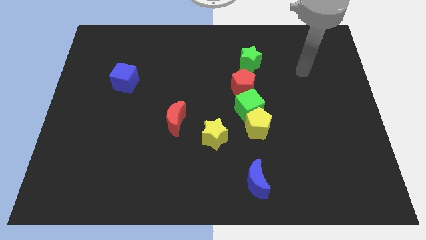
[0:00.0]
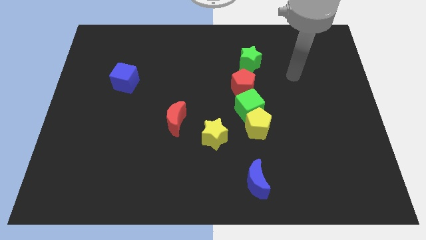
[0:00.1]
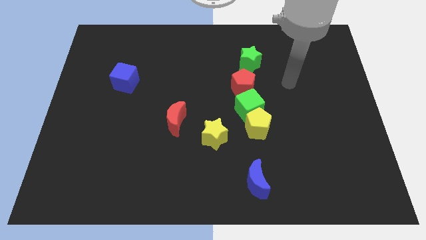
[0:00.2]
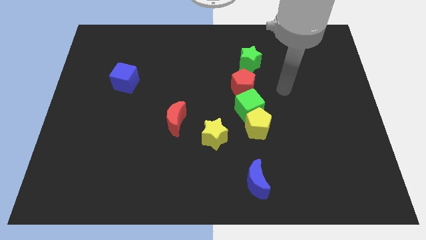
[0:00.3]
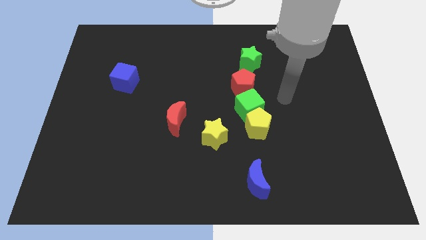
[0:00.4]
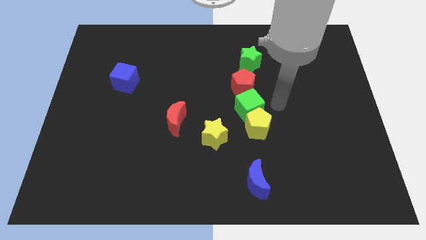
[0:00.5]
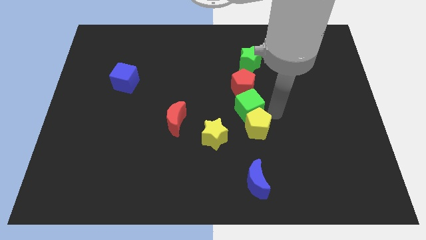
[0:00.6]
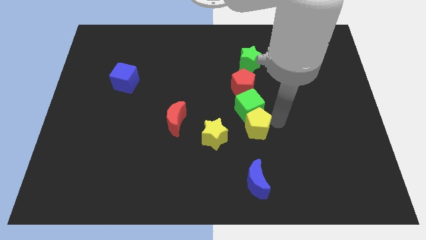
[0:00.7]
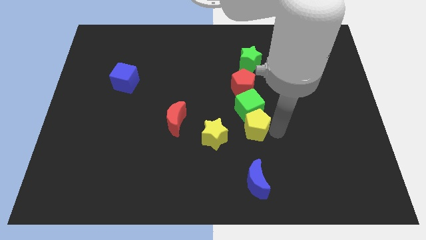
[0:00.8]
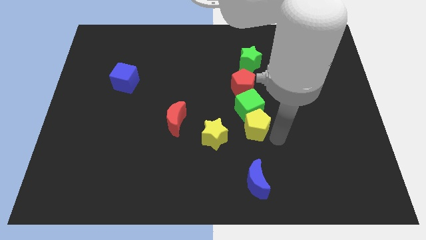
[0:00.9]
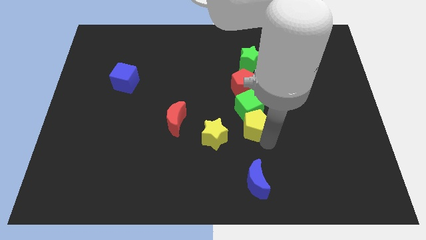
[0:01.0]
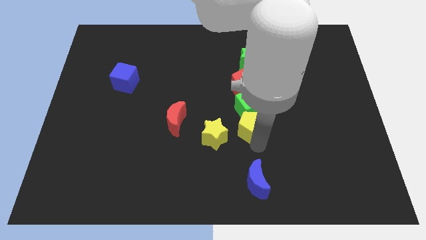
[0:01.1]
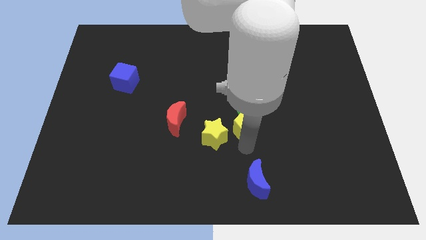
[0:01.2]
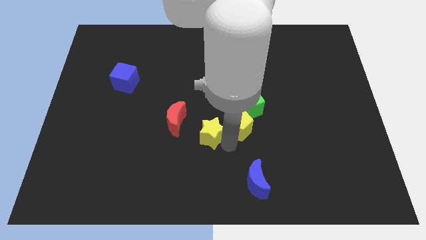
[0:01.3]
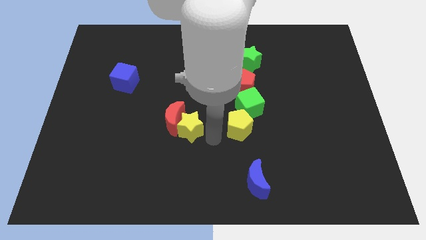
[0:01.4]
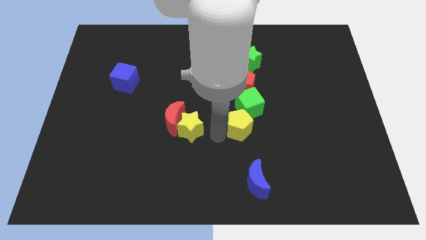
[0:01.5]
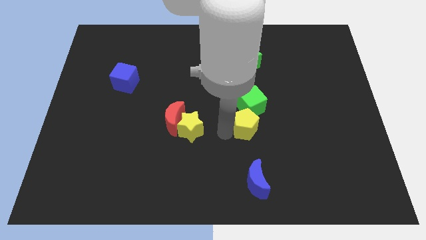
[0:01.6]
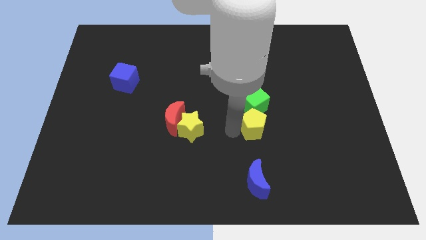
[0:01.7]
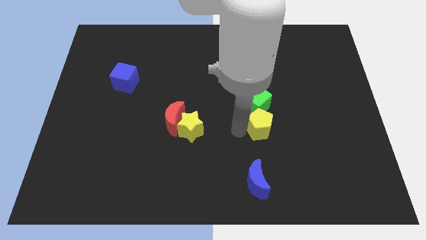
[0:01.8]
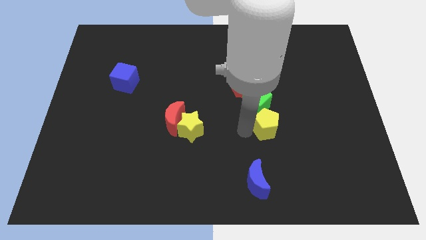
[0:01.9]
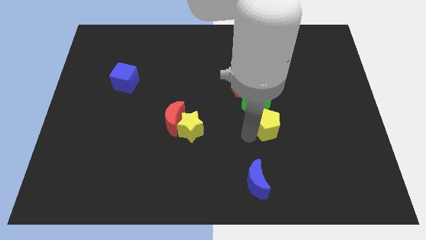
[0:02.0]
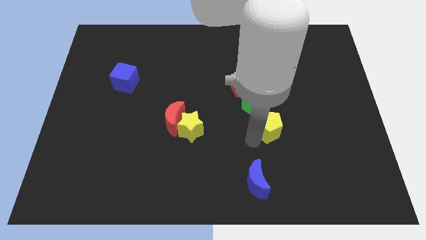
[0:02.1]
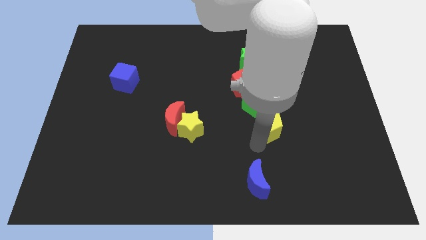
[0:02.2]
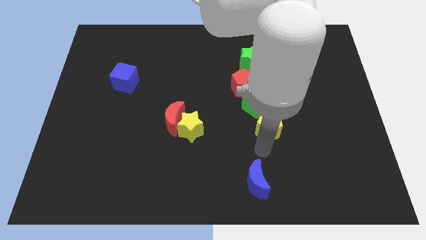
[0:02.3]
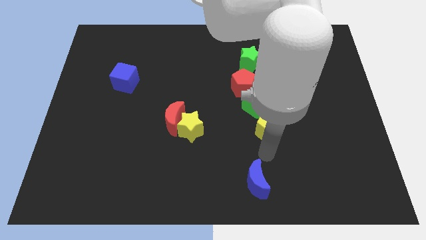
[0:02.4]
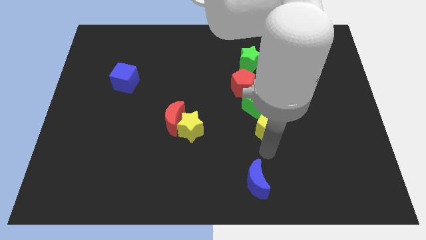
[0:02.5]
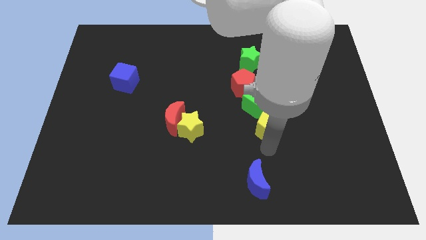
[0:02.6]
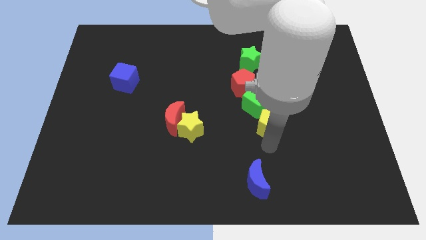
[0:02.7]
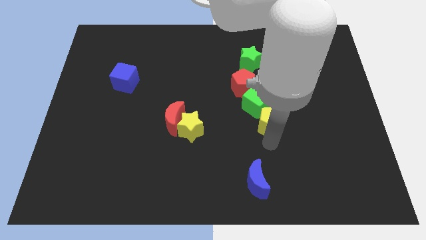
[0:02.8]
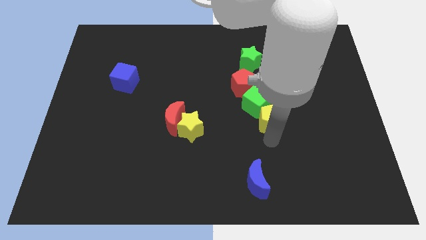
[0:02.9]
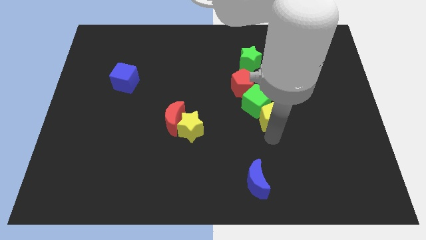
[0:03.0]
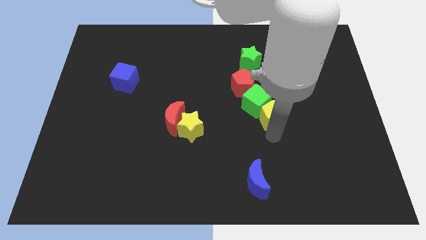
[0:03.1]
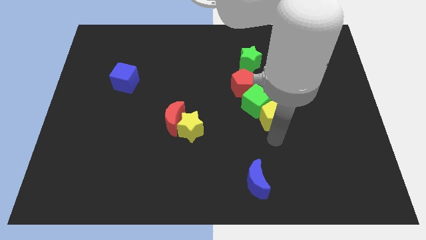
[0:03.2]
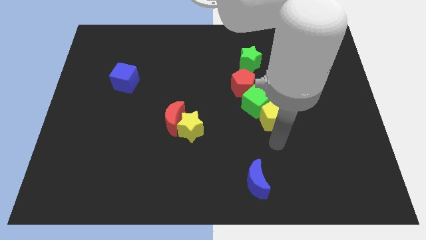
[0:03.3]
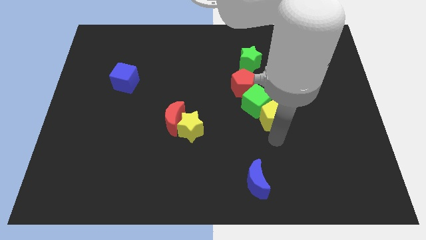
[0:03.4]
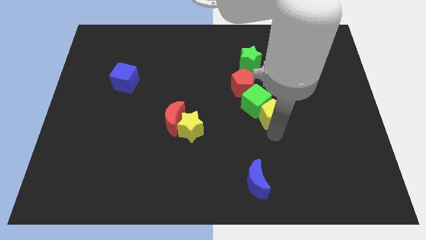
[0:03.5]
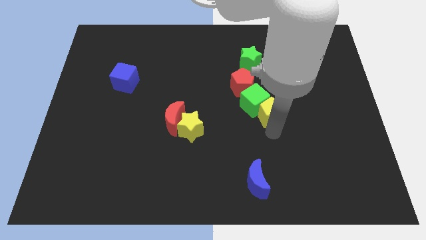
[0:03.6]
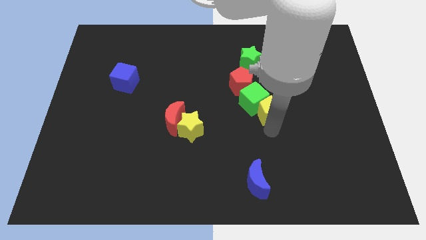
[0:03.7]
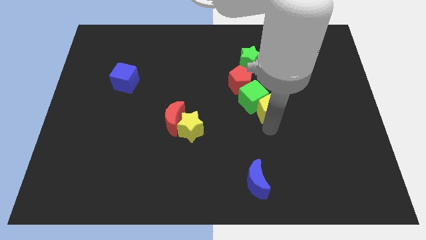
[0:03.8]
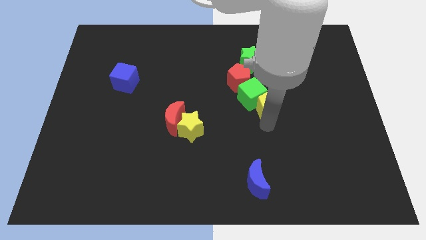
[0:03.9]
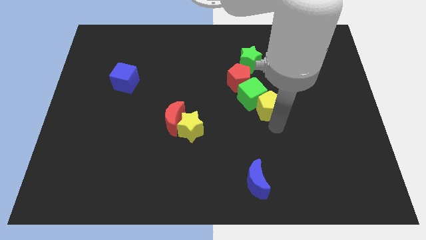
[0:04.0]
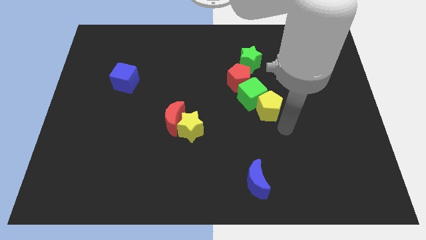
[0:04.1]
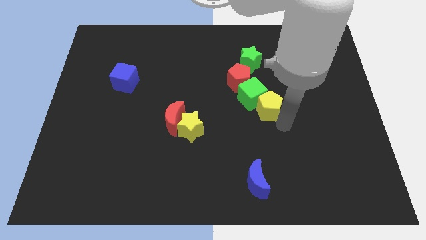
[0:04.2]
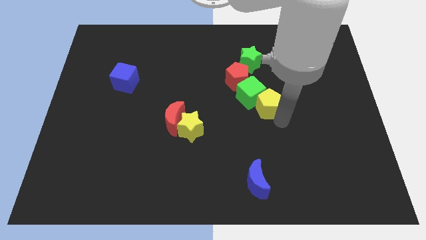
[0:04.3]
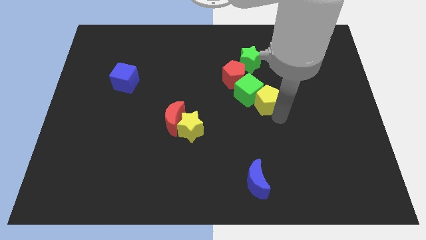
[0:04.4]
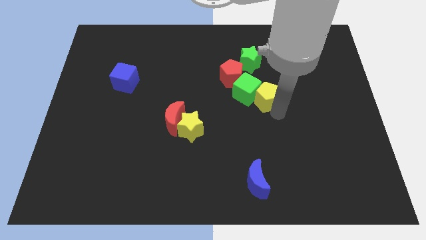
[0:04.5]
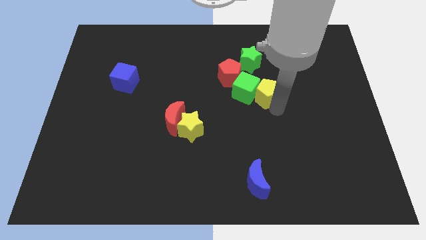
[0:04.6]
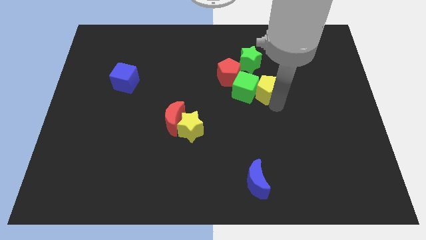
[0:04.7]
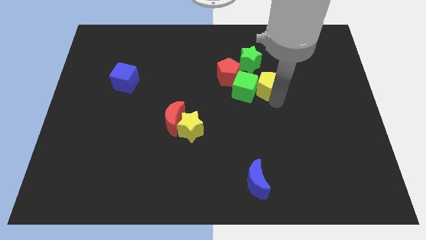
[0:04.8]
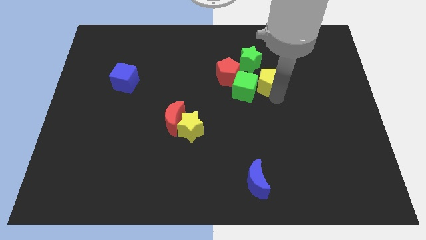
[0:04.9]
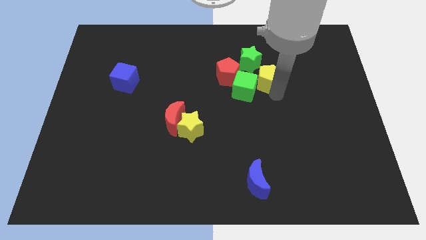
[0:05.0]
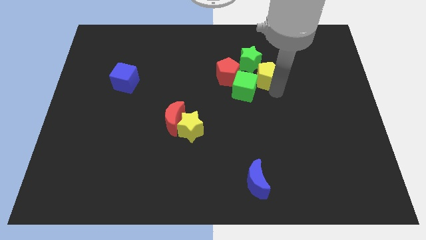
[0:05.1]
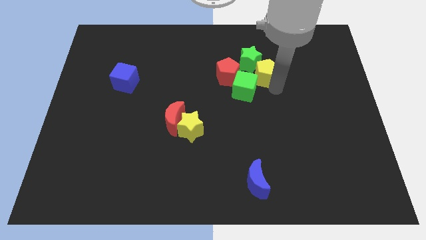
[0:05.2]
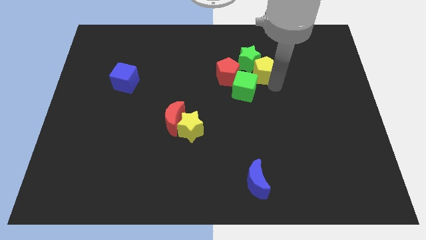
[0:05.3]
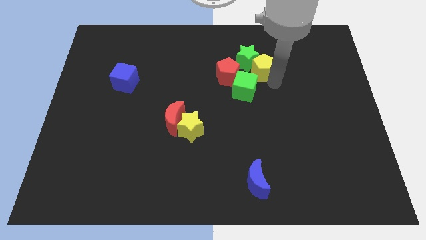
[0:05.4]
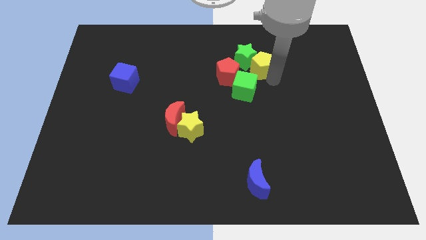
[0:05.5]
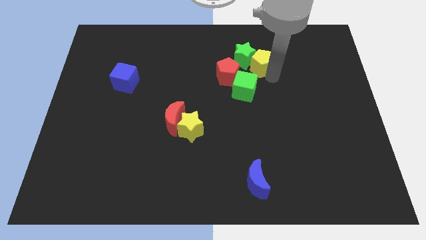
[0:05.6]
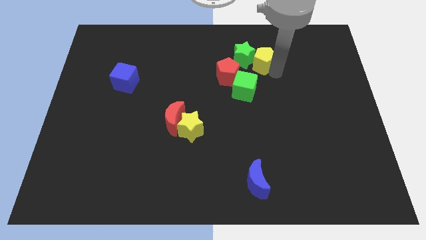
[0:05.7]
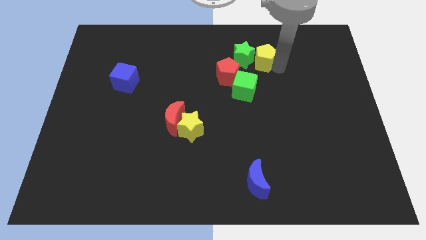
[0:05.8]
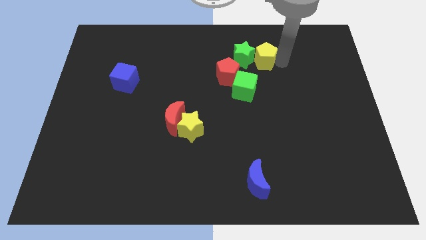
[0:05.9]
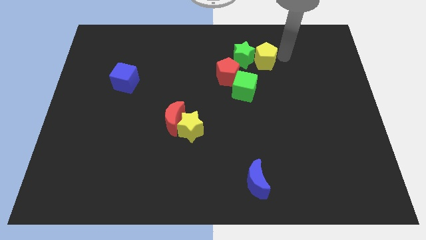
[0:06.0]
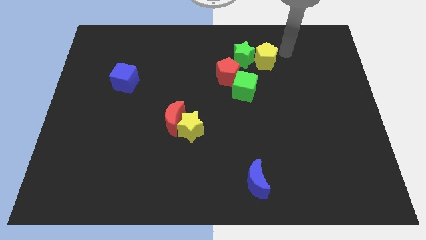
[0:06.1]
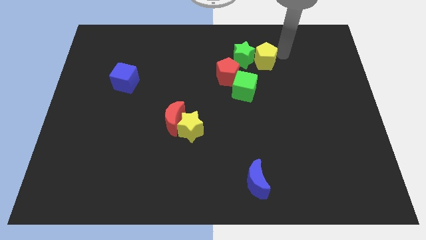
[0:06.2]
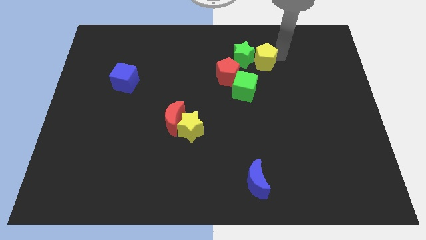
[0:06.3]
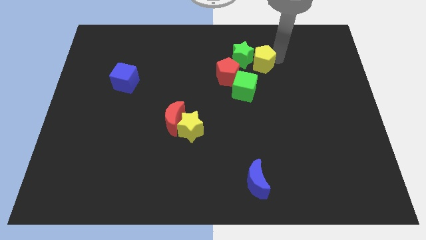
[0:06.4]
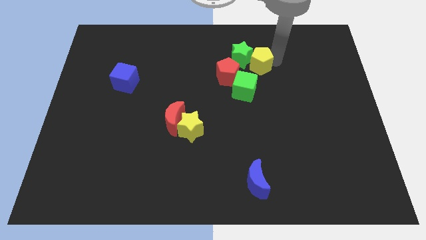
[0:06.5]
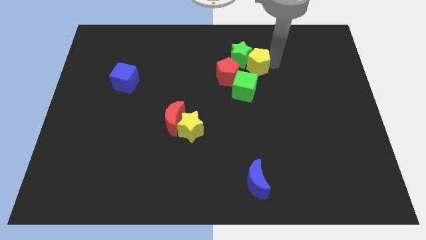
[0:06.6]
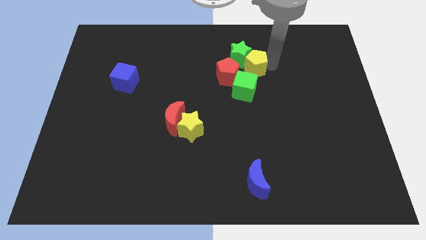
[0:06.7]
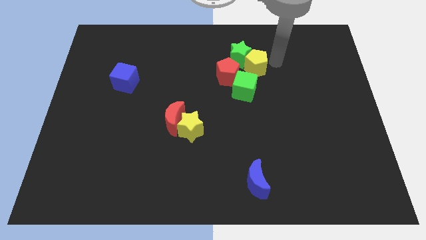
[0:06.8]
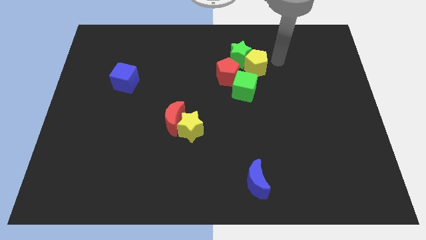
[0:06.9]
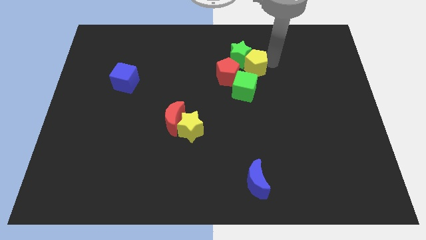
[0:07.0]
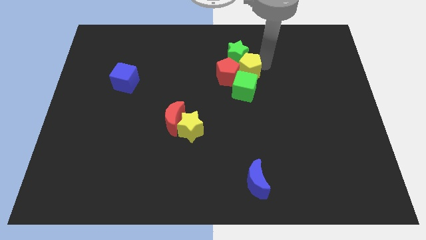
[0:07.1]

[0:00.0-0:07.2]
put the yellow pentagon to the red pentagon
